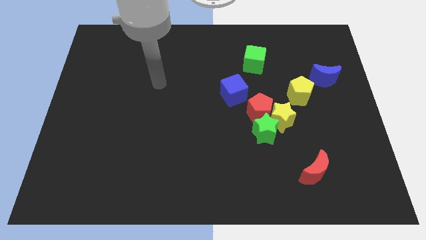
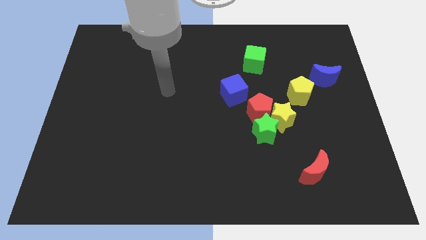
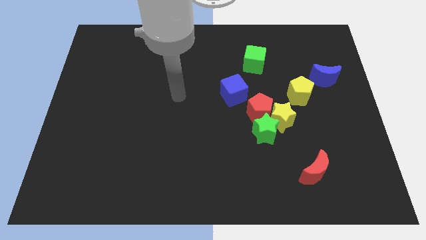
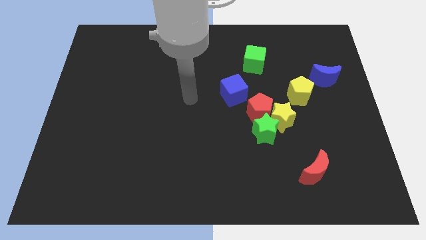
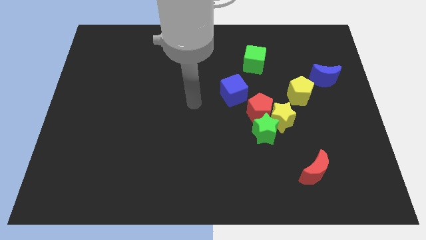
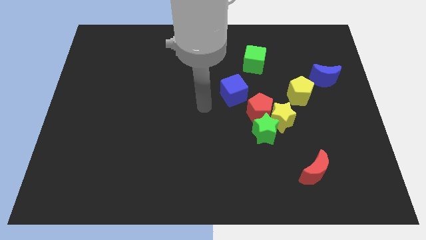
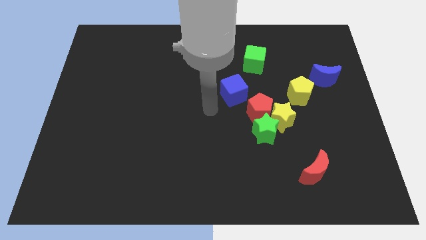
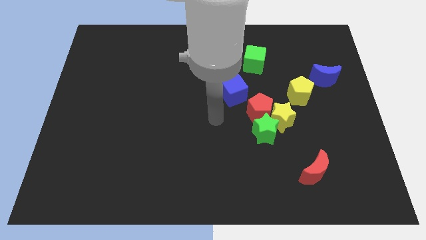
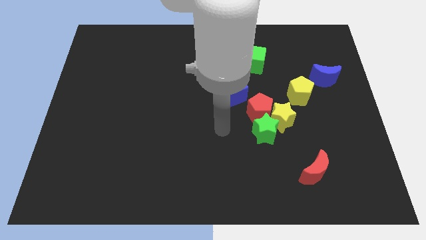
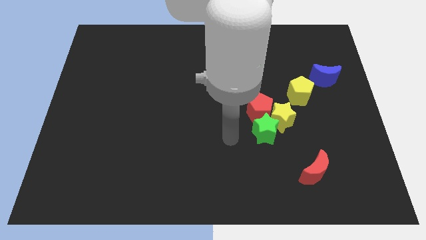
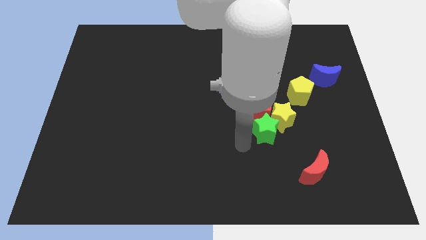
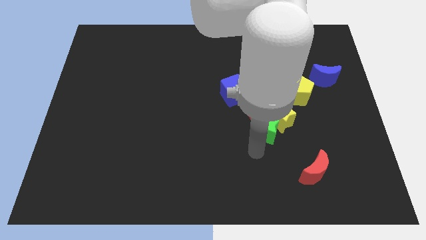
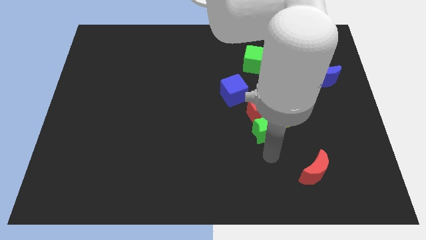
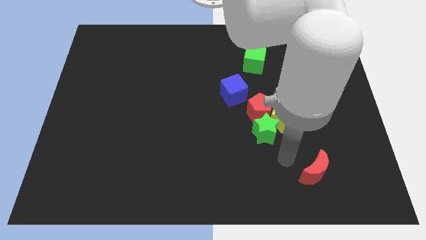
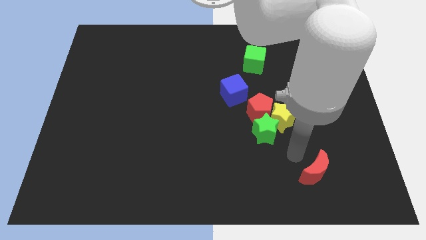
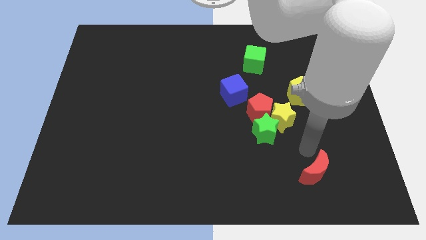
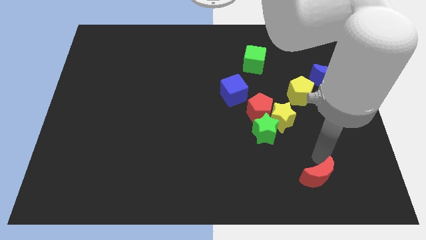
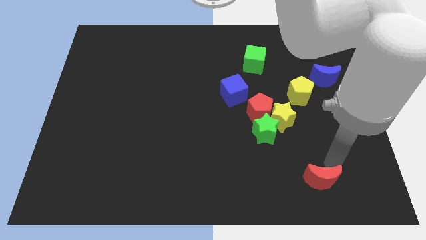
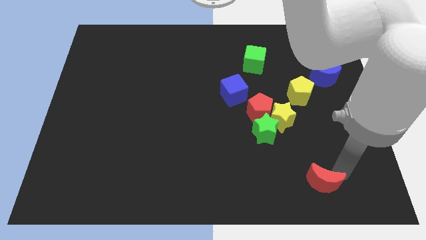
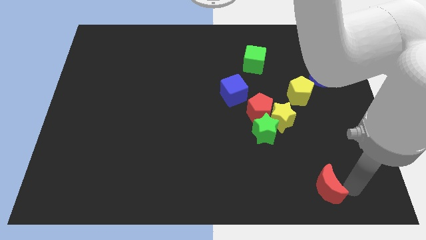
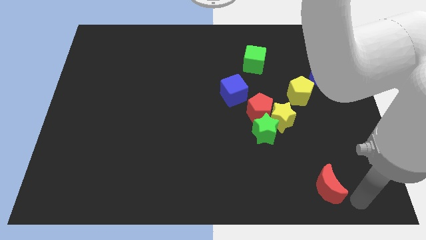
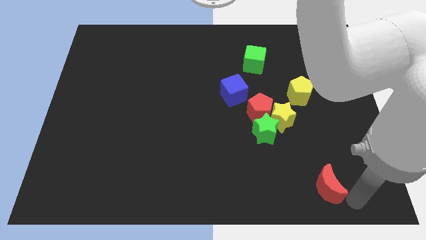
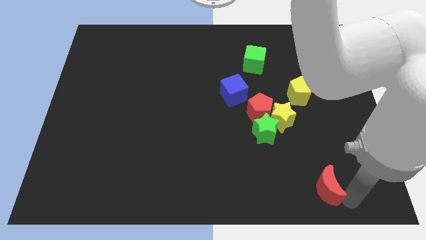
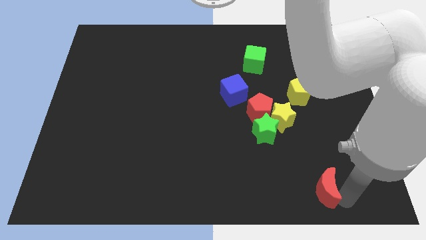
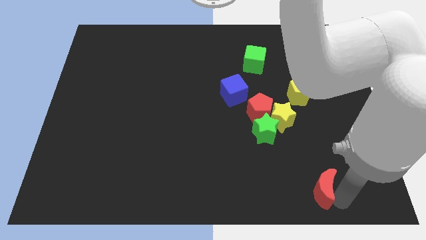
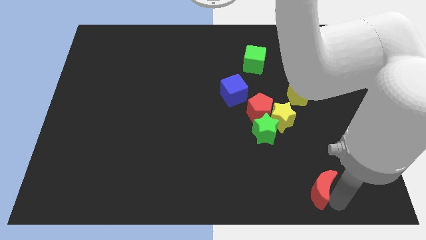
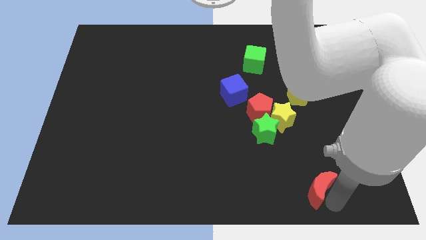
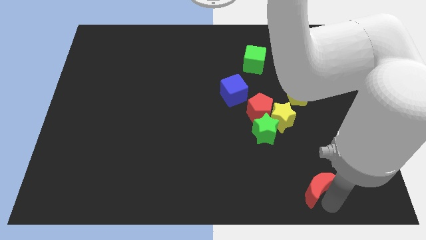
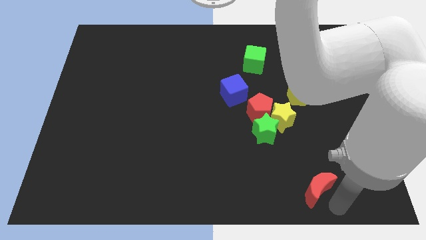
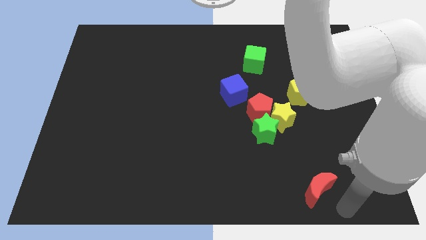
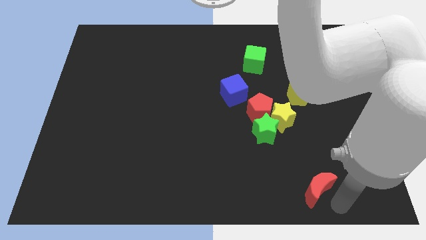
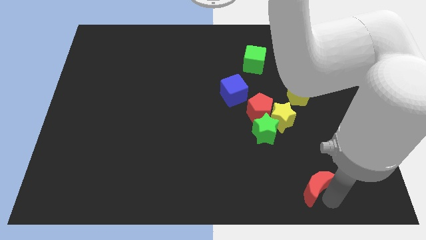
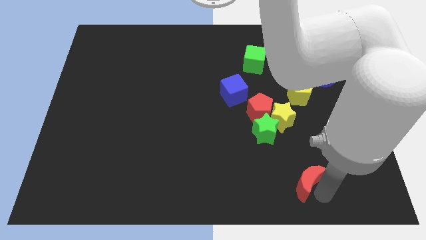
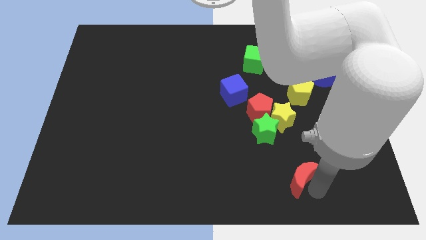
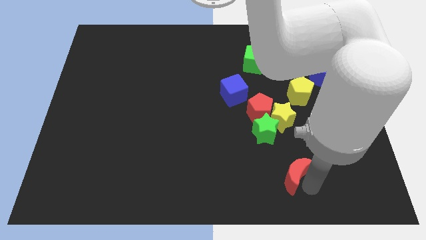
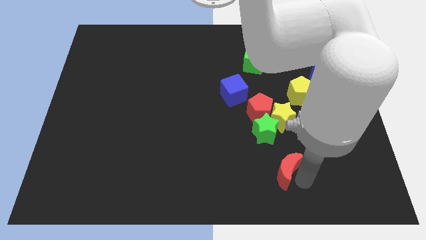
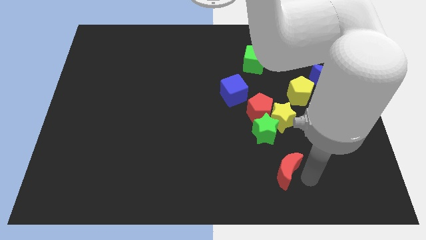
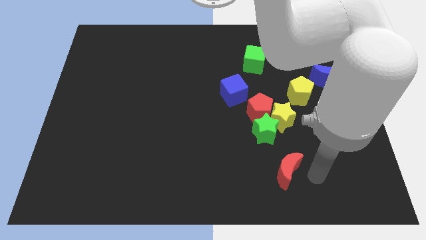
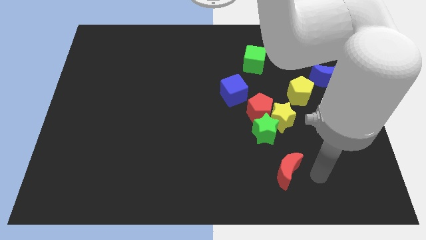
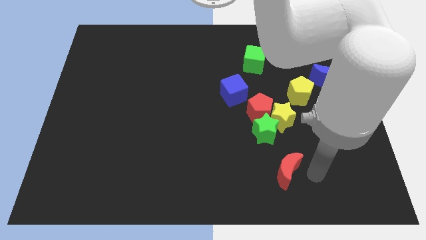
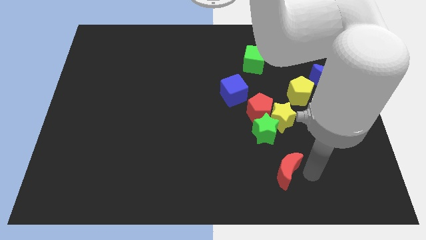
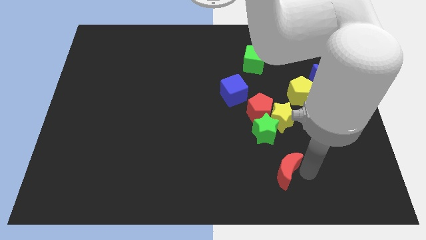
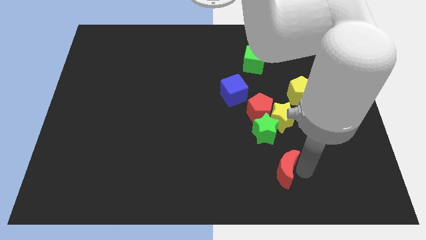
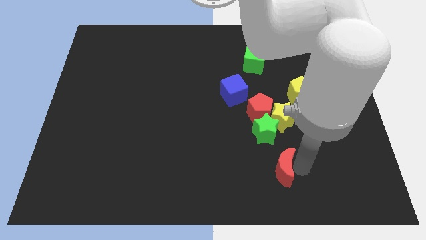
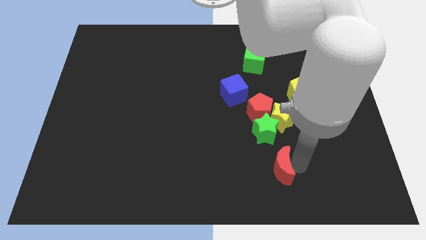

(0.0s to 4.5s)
slide the red moon a little bit left

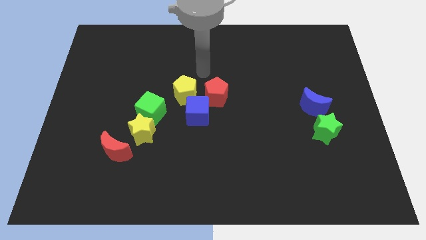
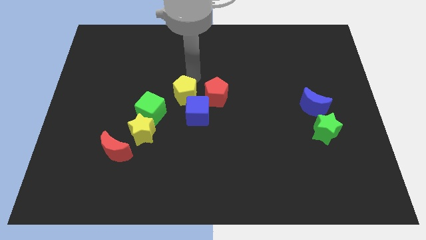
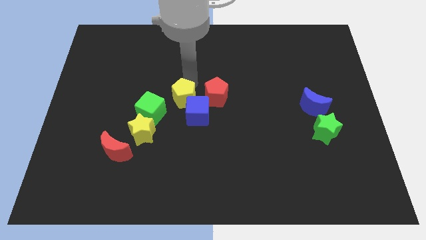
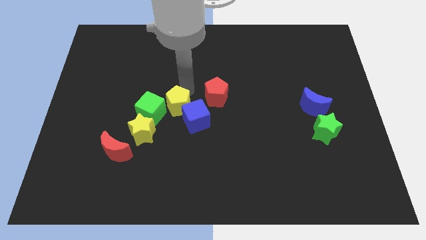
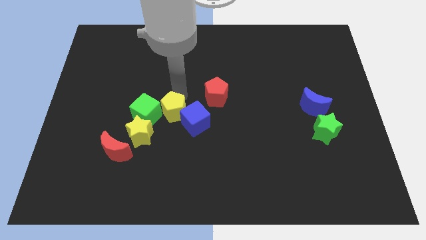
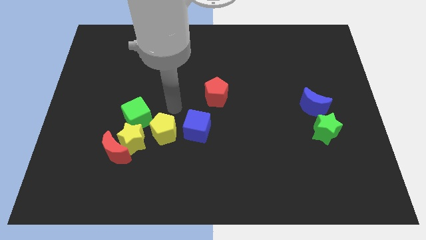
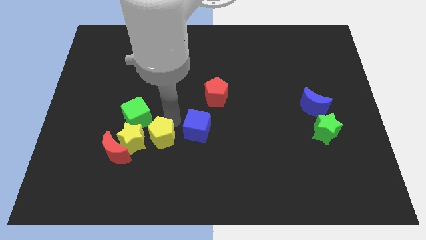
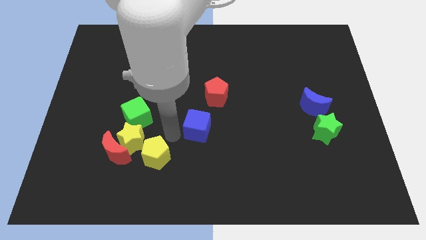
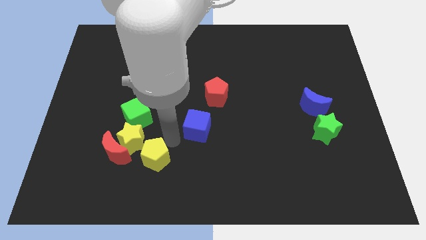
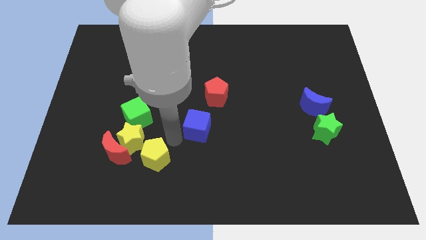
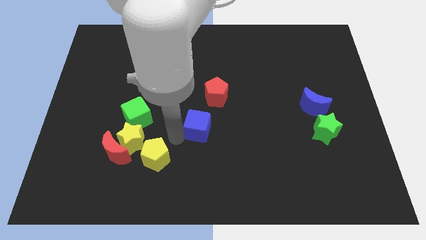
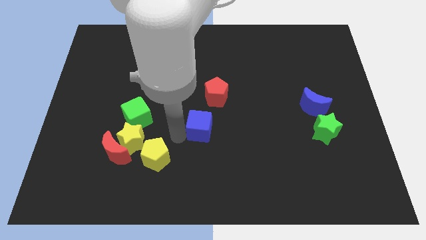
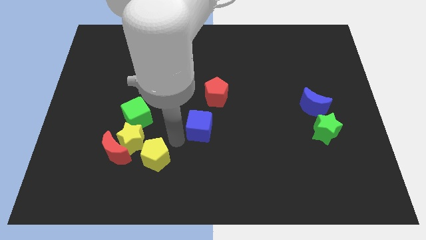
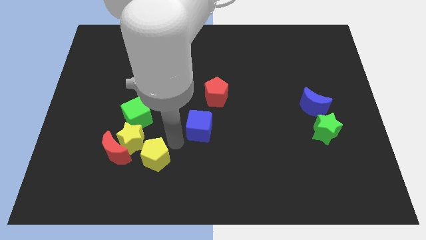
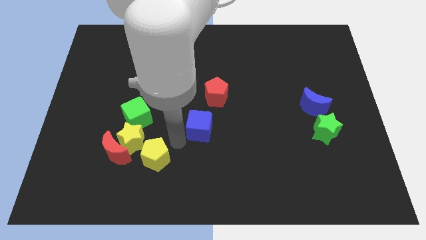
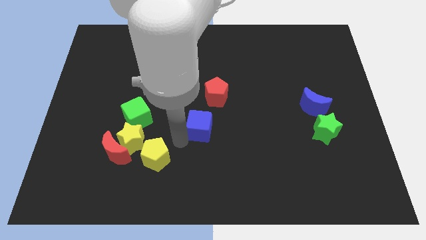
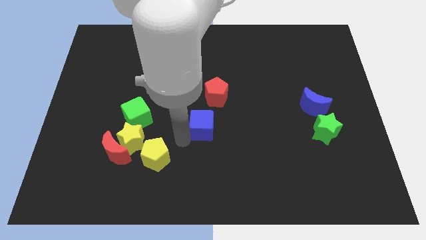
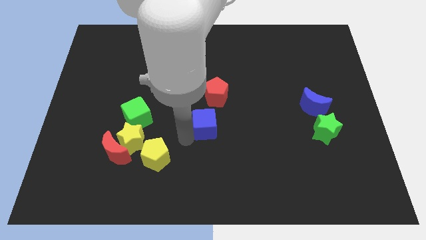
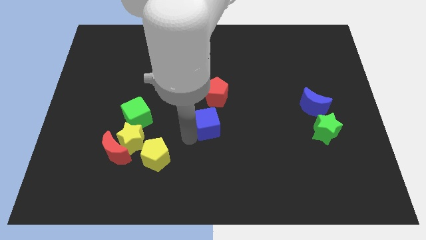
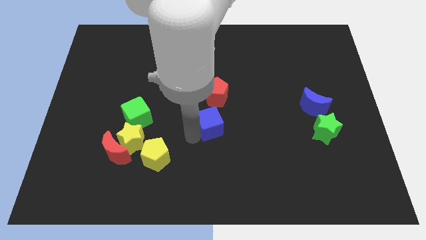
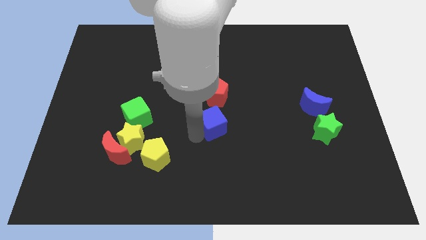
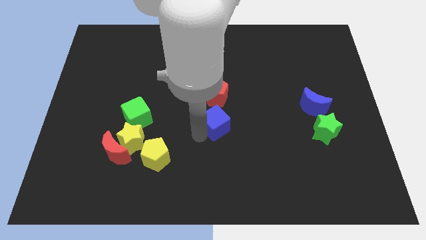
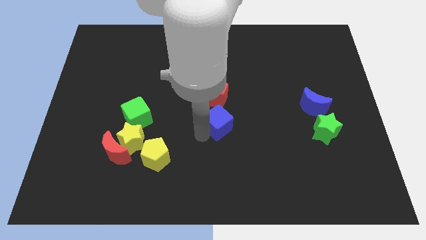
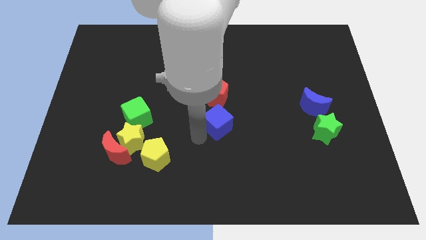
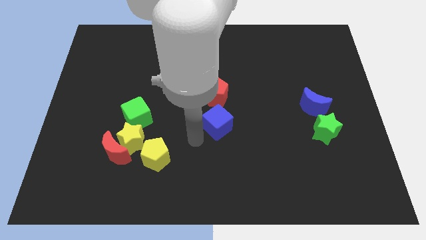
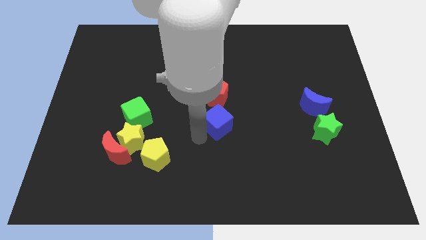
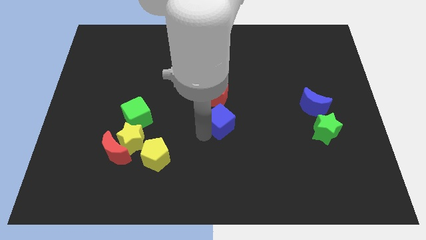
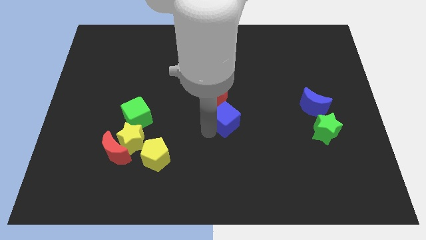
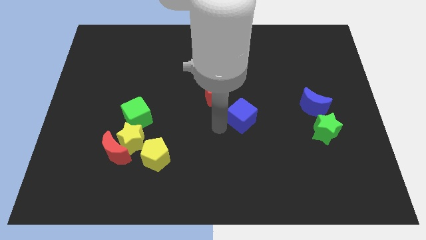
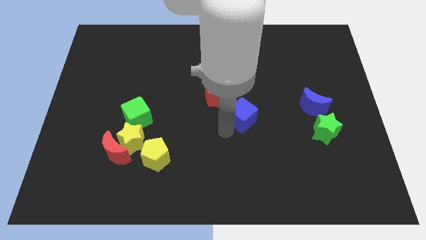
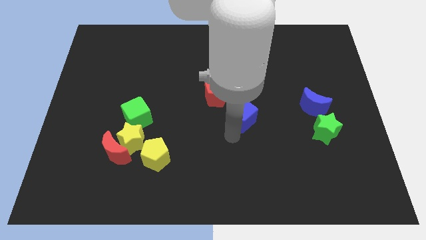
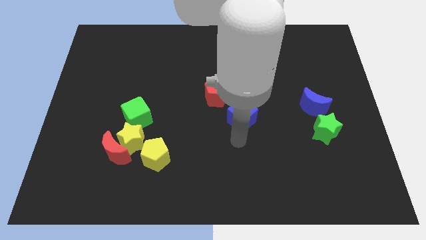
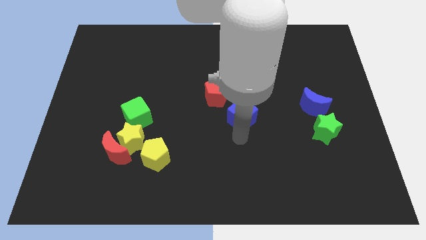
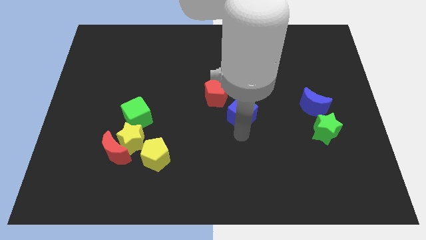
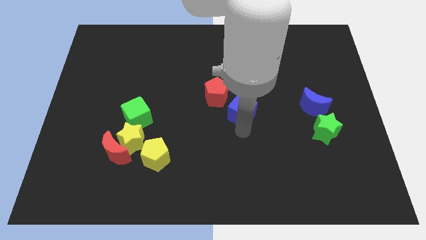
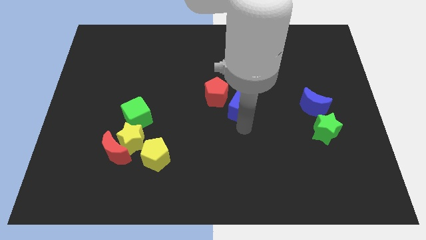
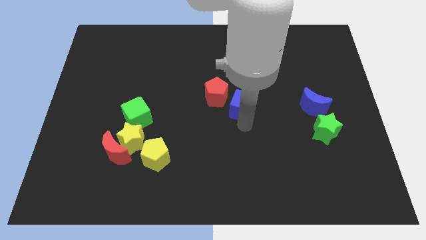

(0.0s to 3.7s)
slide the blue cube a little up and then right
